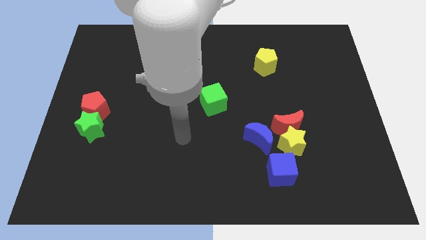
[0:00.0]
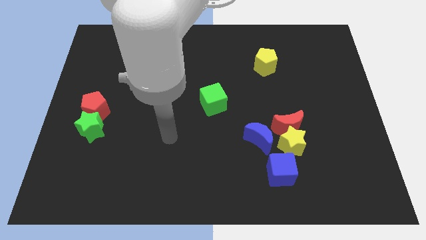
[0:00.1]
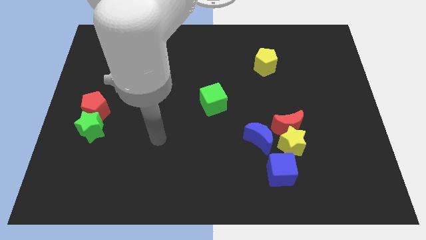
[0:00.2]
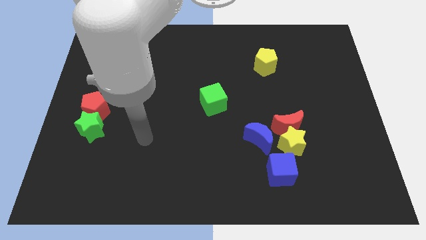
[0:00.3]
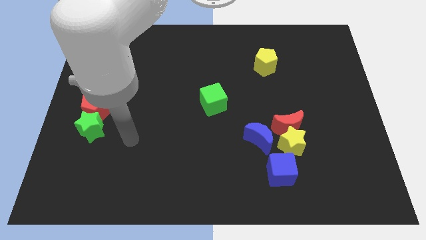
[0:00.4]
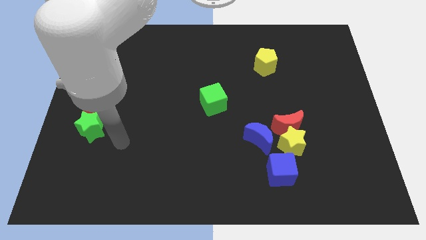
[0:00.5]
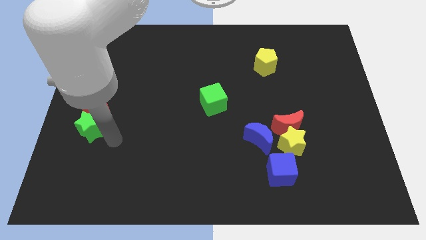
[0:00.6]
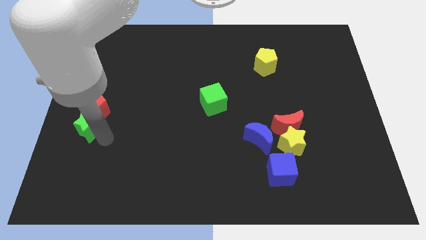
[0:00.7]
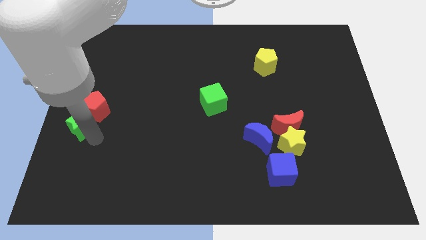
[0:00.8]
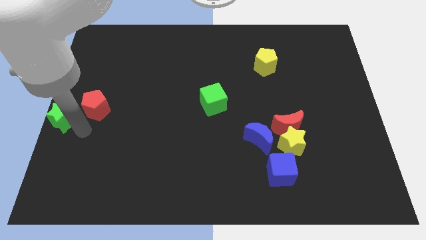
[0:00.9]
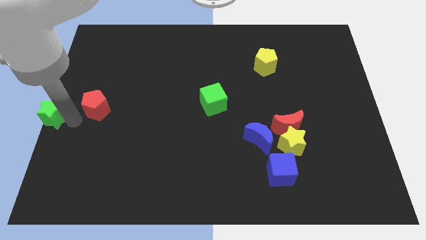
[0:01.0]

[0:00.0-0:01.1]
move the red pentagon away from the green star

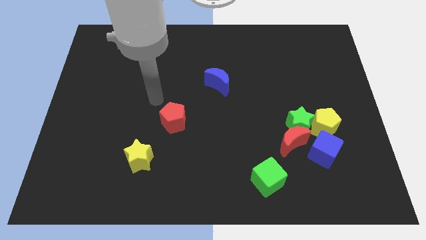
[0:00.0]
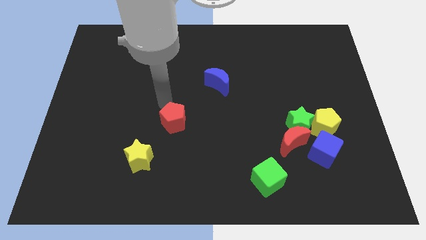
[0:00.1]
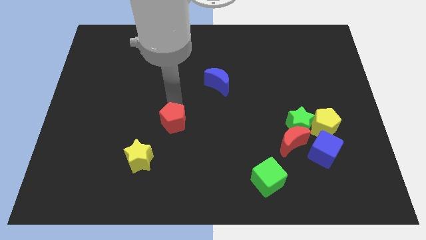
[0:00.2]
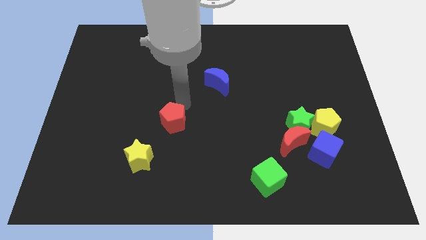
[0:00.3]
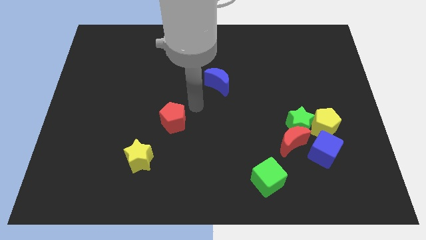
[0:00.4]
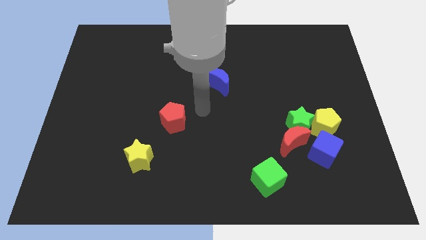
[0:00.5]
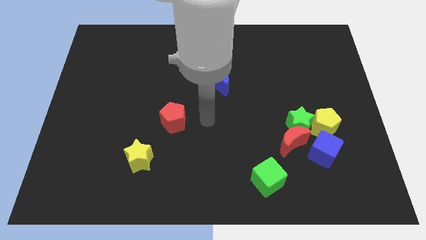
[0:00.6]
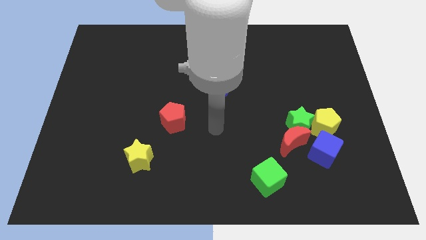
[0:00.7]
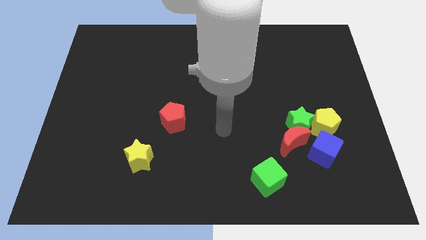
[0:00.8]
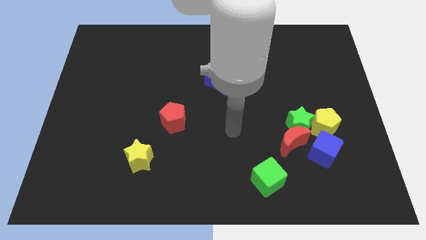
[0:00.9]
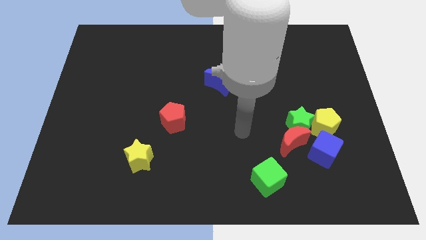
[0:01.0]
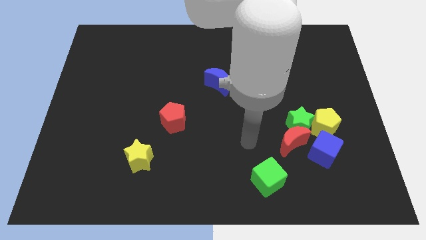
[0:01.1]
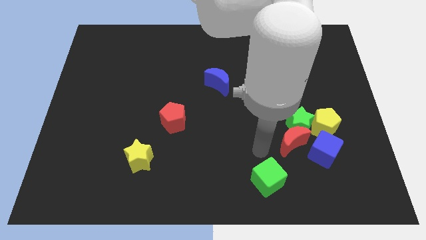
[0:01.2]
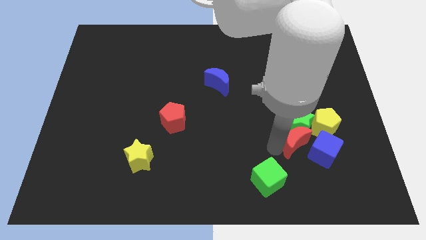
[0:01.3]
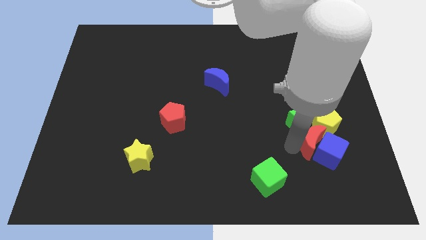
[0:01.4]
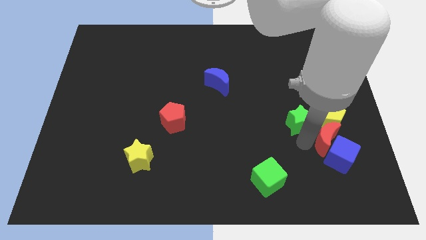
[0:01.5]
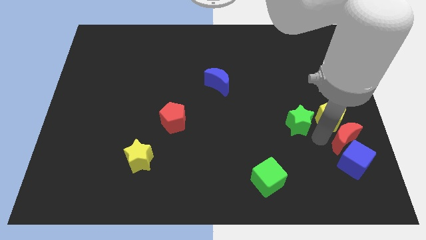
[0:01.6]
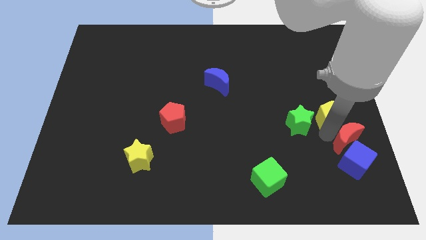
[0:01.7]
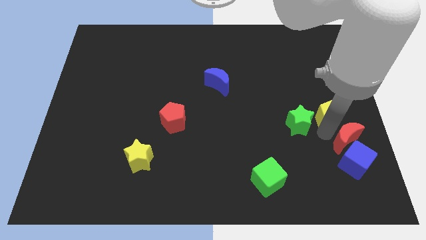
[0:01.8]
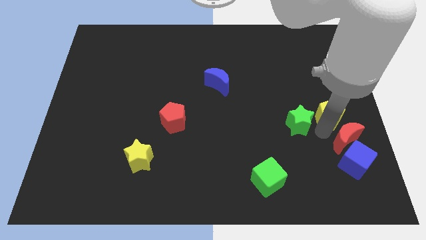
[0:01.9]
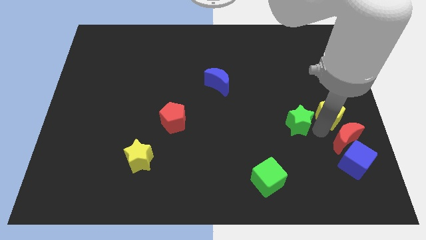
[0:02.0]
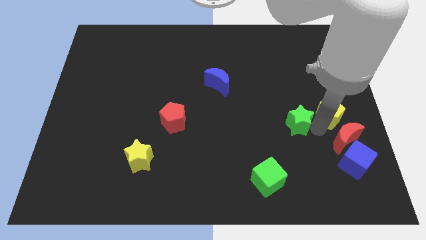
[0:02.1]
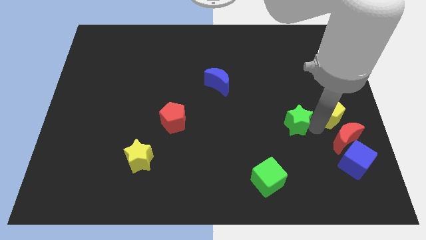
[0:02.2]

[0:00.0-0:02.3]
pull the green star apart from the red moon, yellow pentagon, and blue cube

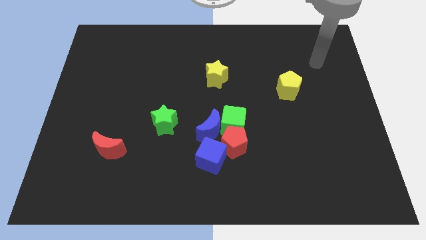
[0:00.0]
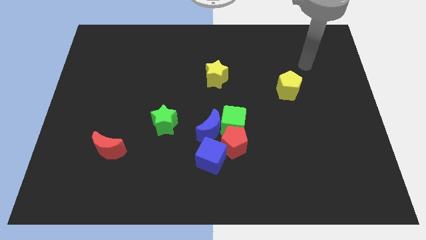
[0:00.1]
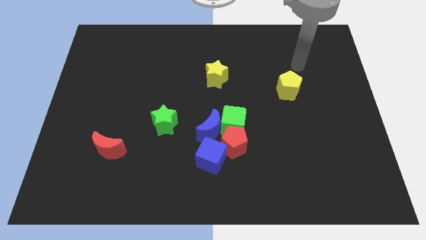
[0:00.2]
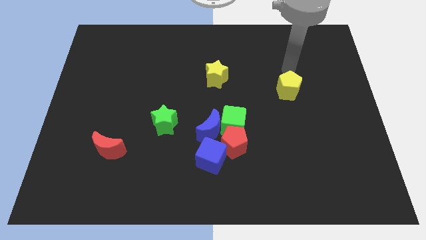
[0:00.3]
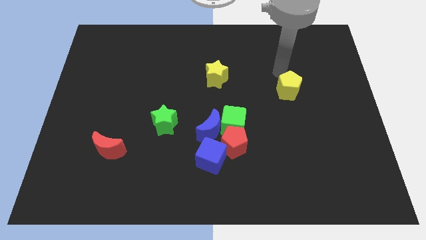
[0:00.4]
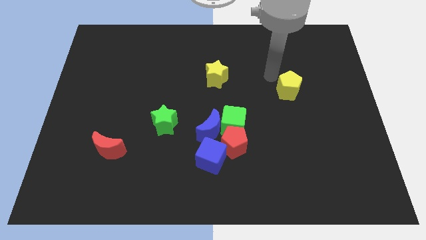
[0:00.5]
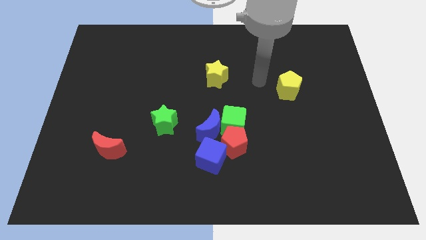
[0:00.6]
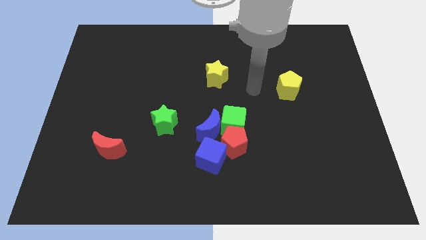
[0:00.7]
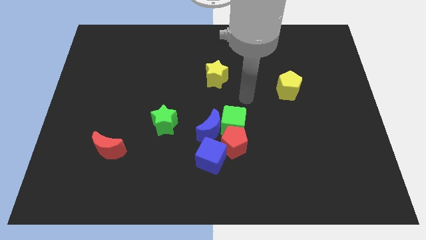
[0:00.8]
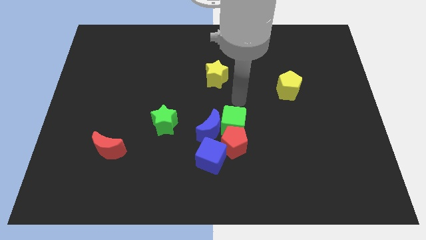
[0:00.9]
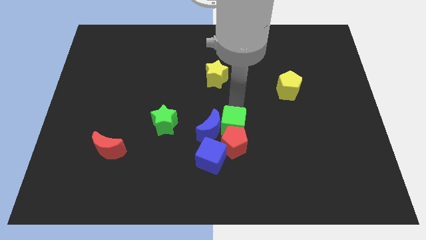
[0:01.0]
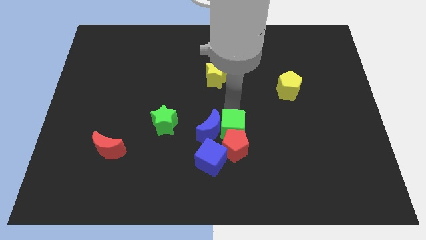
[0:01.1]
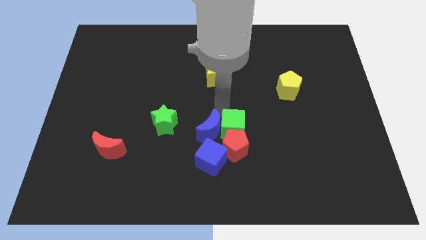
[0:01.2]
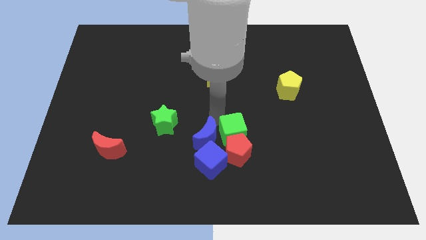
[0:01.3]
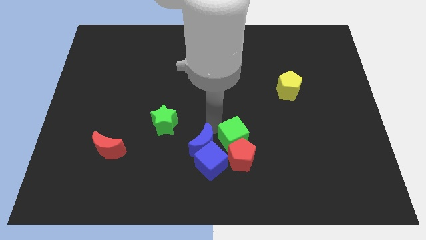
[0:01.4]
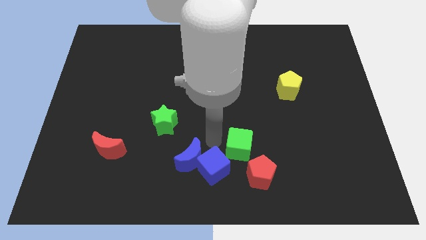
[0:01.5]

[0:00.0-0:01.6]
pull the red pentagon apart from the clump

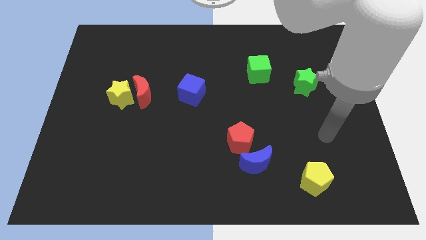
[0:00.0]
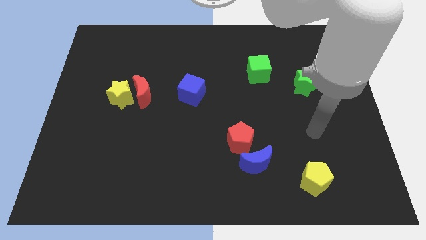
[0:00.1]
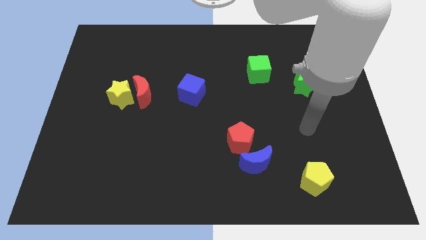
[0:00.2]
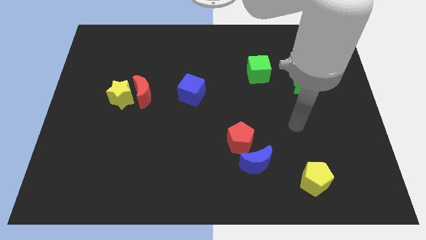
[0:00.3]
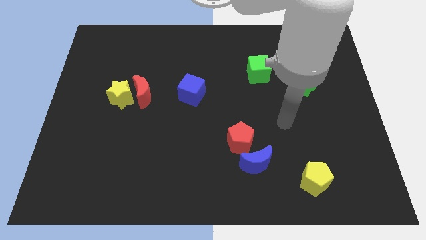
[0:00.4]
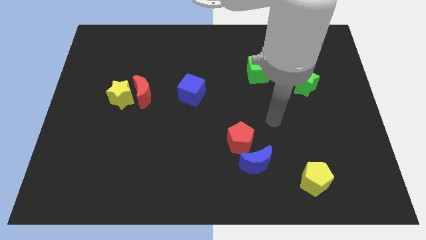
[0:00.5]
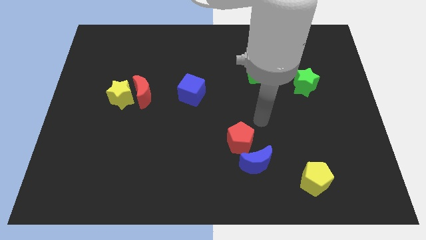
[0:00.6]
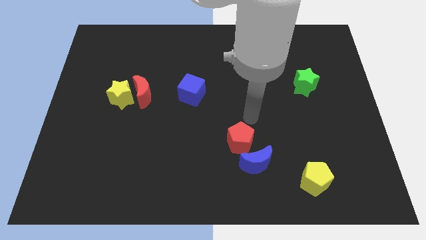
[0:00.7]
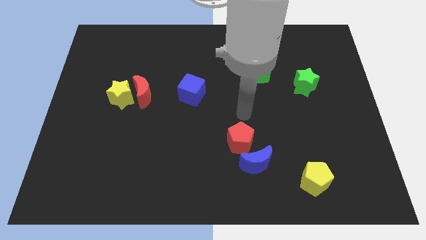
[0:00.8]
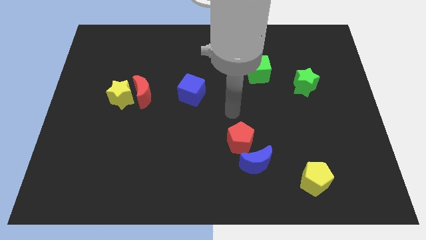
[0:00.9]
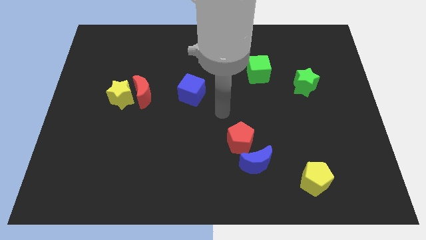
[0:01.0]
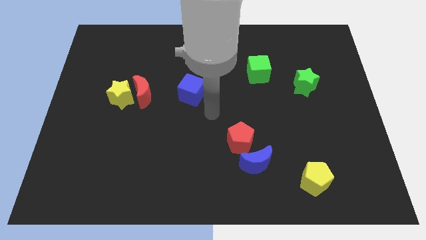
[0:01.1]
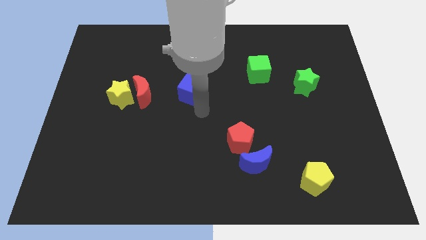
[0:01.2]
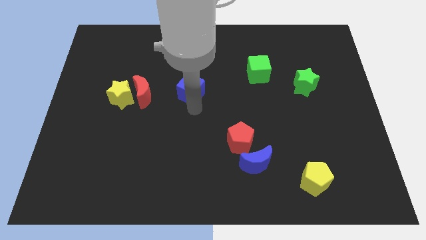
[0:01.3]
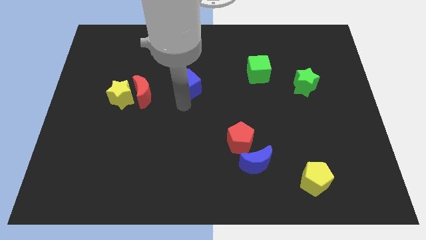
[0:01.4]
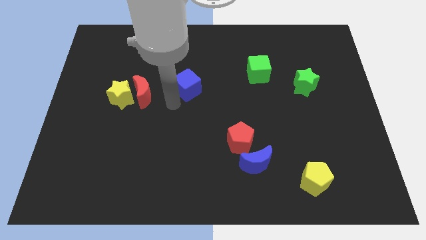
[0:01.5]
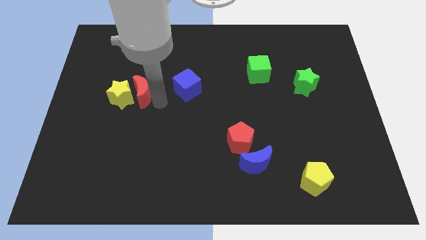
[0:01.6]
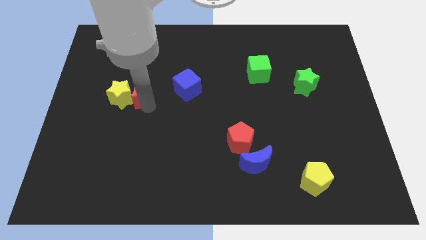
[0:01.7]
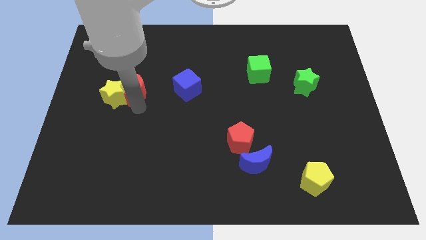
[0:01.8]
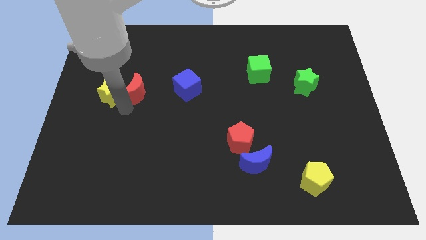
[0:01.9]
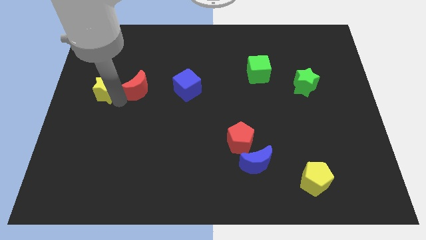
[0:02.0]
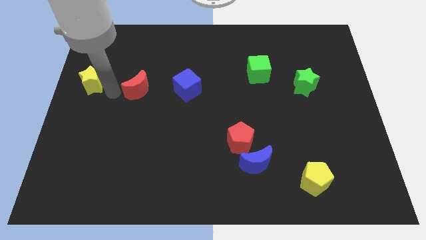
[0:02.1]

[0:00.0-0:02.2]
pull the red moon apart from the yellow star

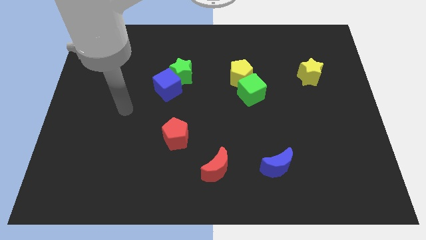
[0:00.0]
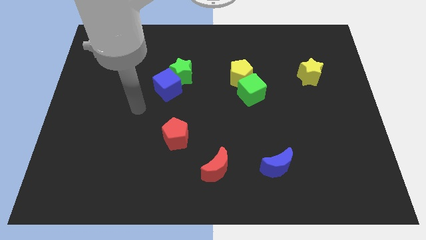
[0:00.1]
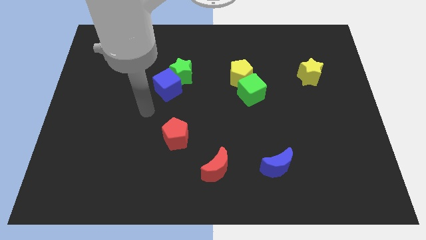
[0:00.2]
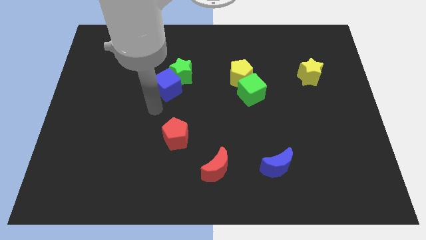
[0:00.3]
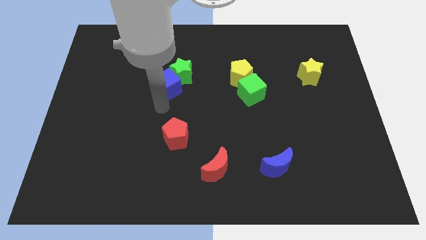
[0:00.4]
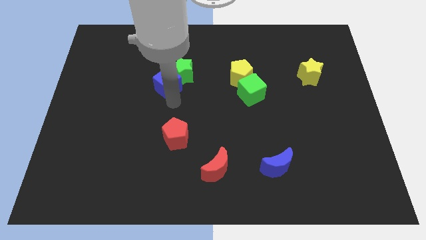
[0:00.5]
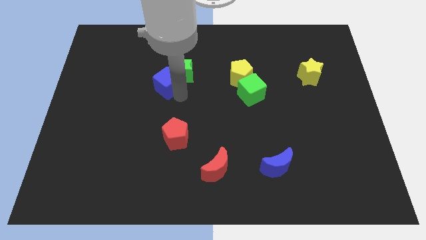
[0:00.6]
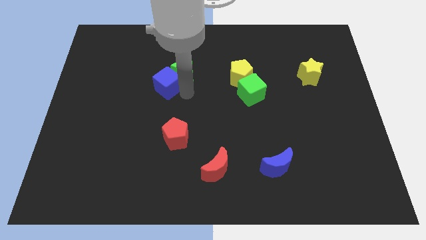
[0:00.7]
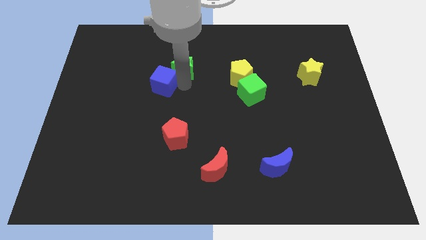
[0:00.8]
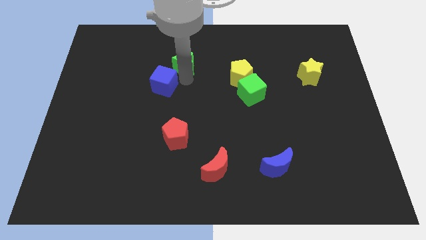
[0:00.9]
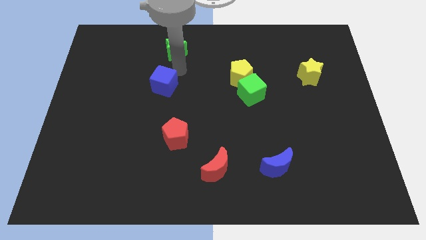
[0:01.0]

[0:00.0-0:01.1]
pull the blue cube apart from the green star

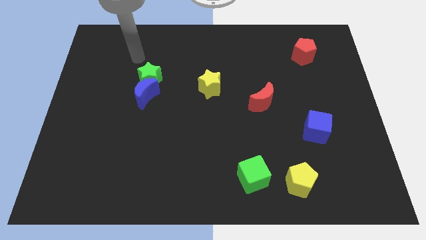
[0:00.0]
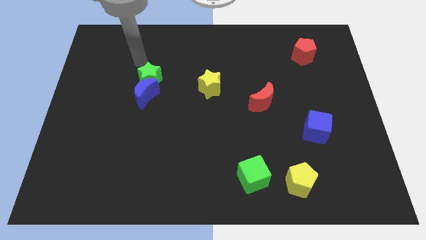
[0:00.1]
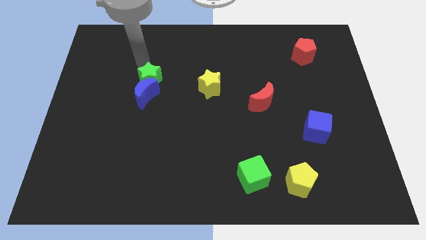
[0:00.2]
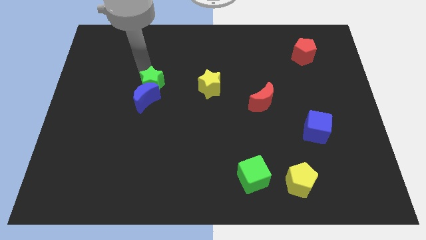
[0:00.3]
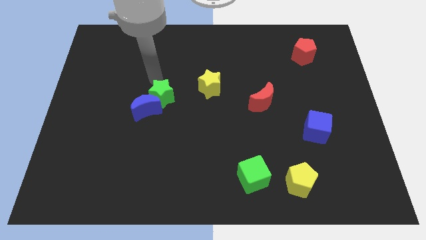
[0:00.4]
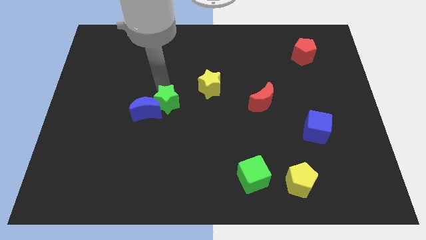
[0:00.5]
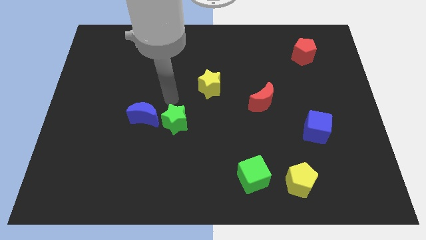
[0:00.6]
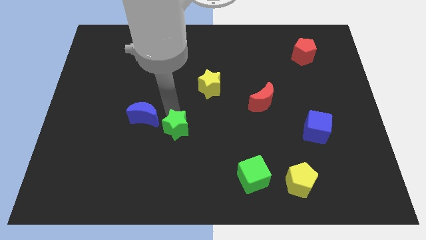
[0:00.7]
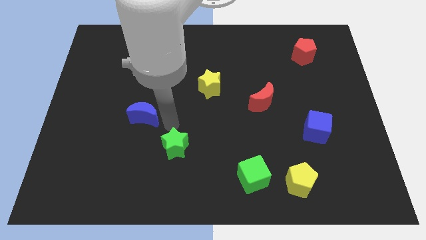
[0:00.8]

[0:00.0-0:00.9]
move the blue moon away from the green star
